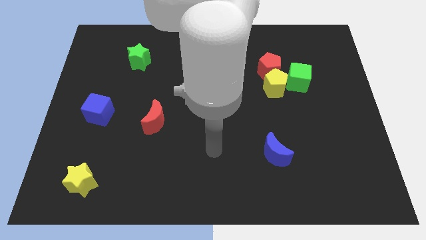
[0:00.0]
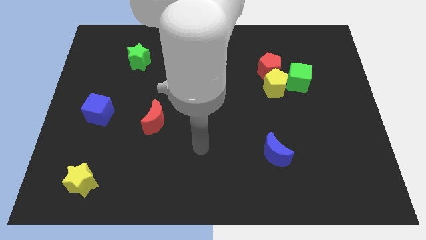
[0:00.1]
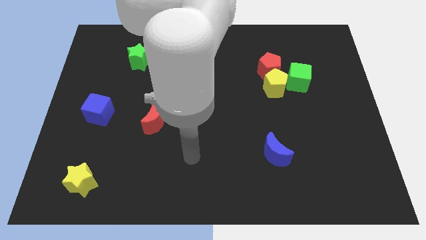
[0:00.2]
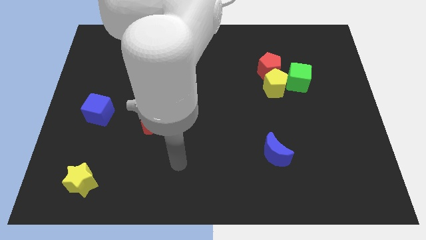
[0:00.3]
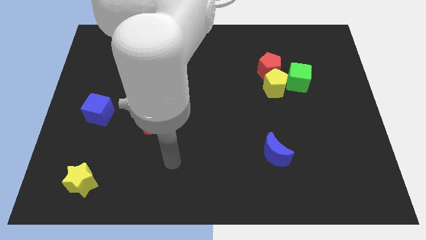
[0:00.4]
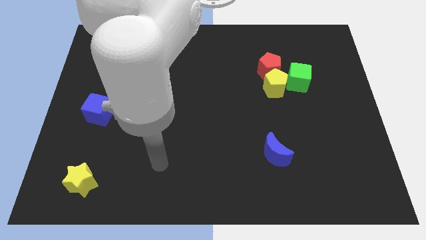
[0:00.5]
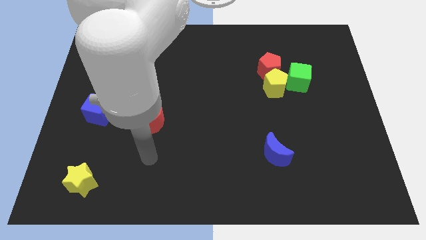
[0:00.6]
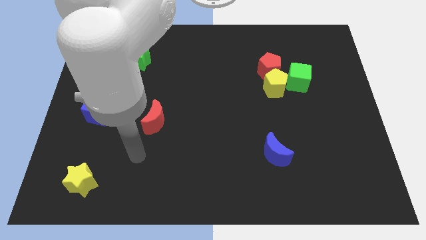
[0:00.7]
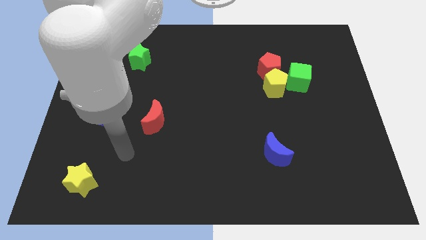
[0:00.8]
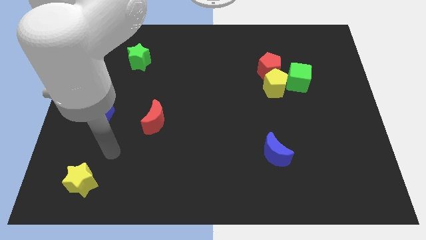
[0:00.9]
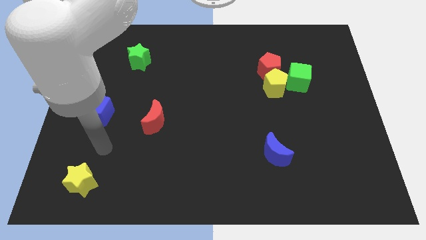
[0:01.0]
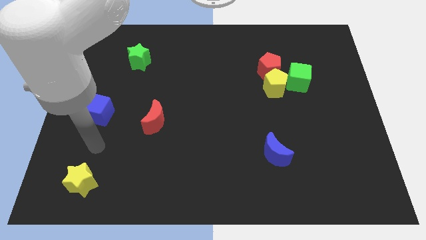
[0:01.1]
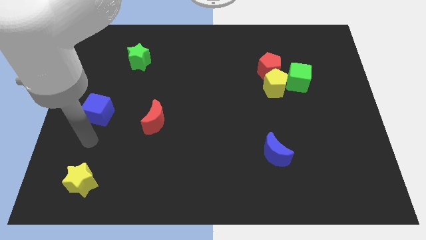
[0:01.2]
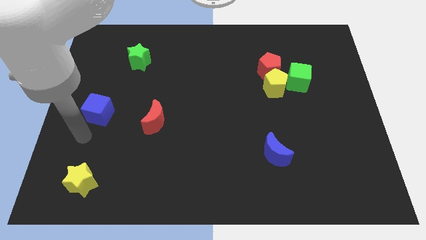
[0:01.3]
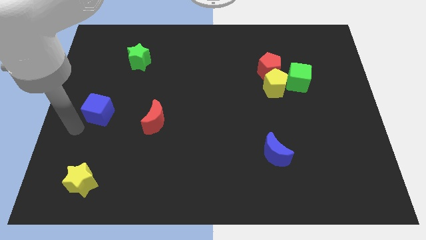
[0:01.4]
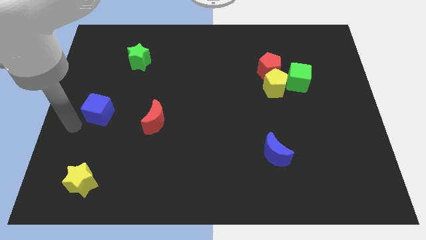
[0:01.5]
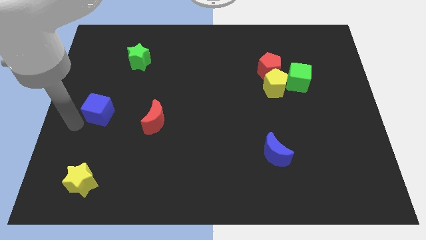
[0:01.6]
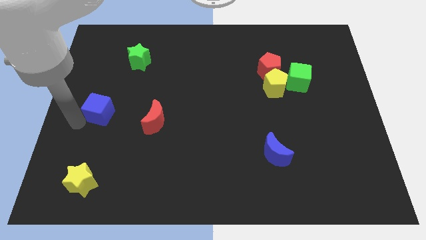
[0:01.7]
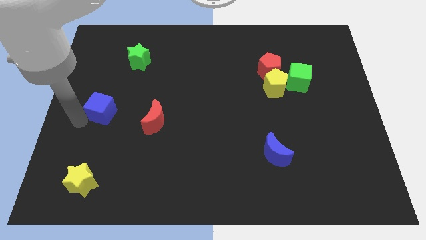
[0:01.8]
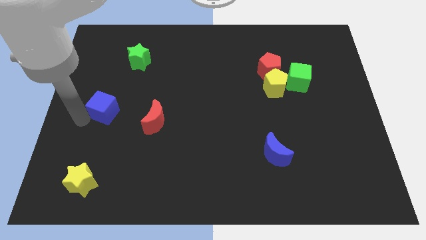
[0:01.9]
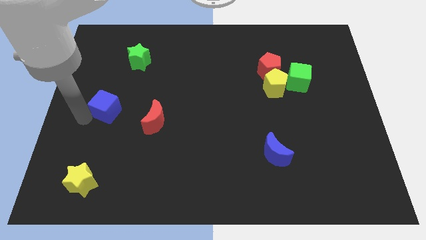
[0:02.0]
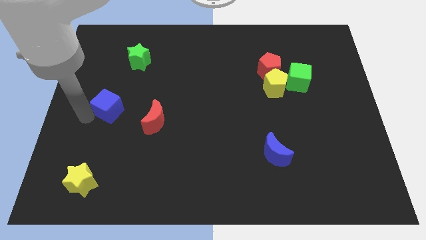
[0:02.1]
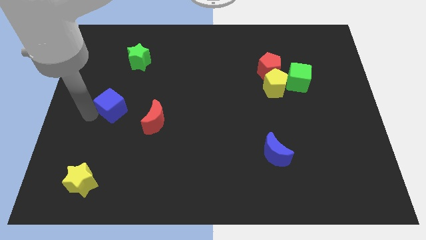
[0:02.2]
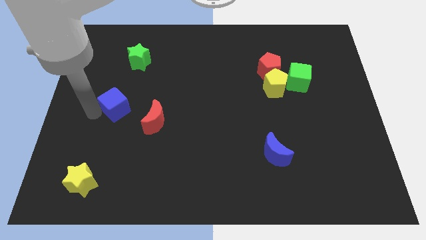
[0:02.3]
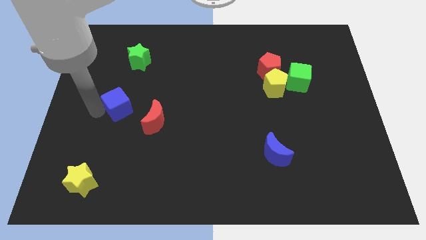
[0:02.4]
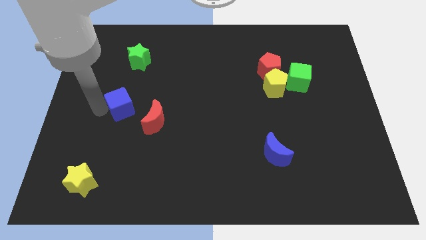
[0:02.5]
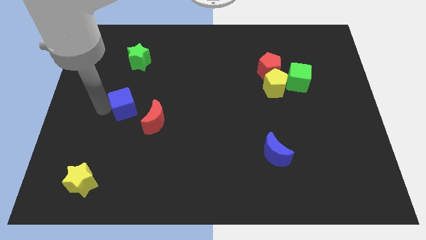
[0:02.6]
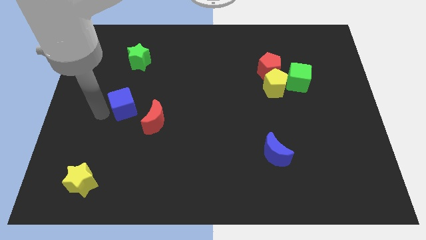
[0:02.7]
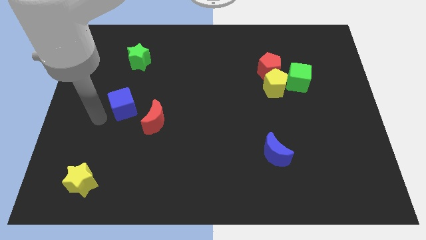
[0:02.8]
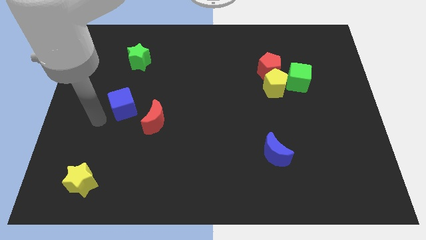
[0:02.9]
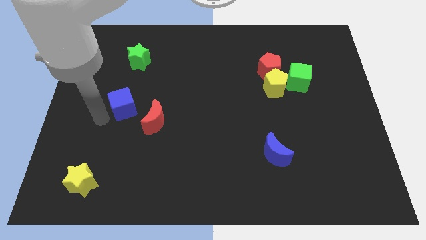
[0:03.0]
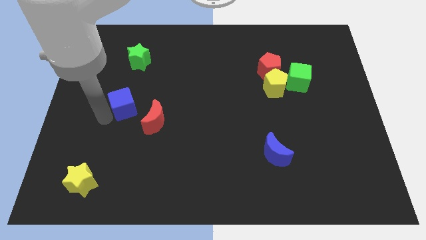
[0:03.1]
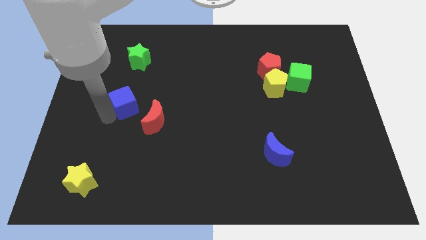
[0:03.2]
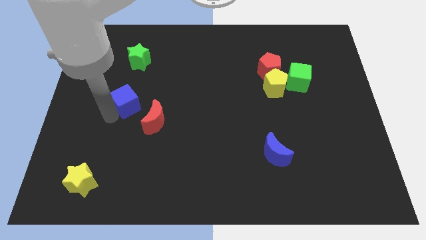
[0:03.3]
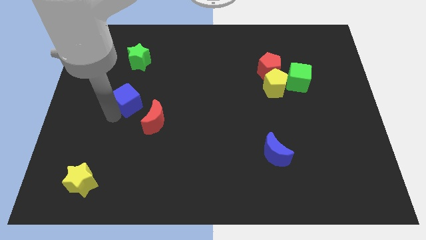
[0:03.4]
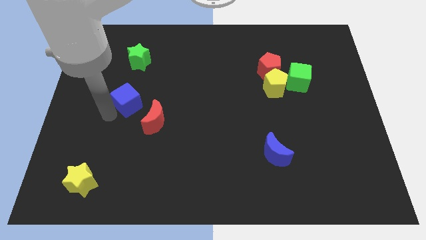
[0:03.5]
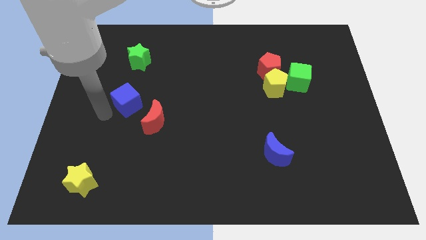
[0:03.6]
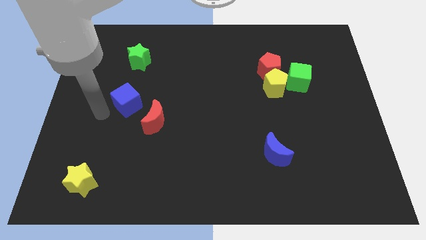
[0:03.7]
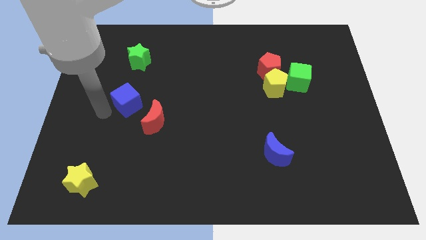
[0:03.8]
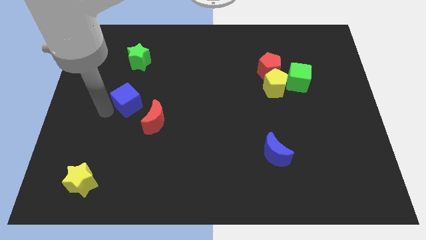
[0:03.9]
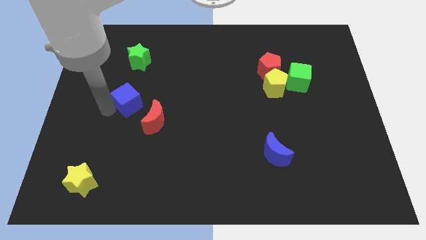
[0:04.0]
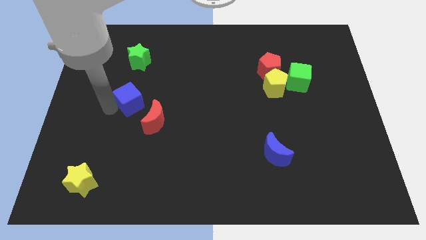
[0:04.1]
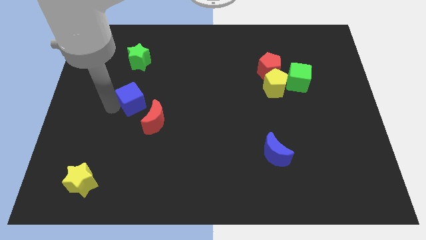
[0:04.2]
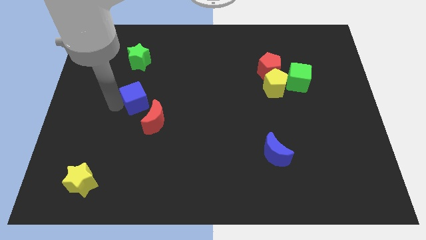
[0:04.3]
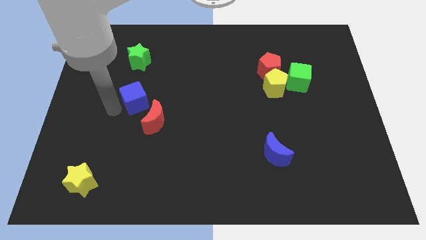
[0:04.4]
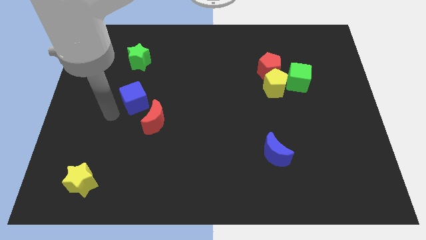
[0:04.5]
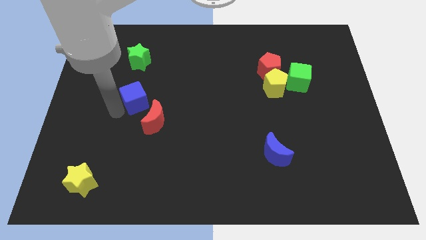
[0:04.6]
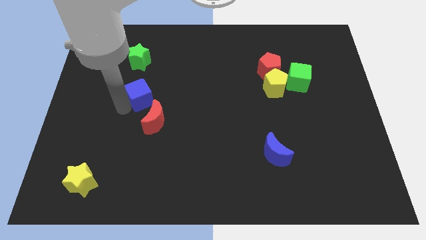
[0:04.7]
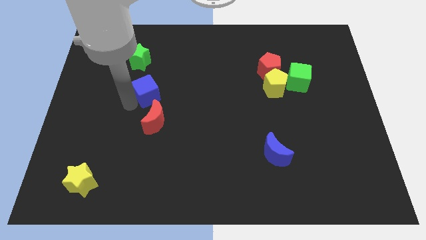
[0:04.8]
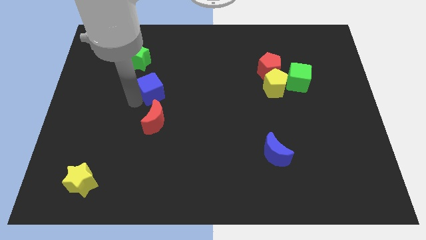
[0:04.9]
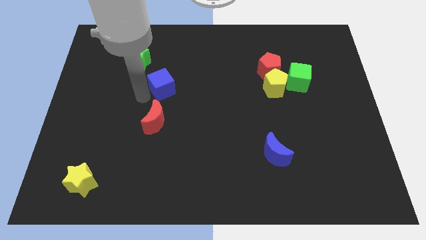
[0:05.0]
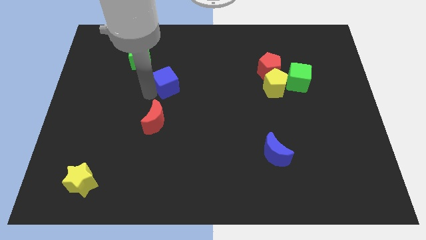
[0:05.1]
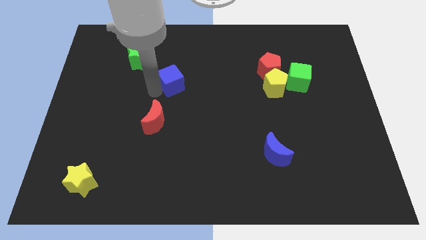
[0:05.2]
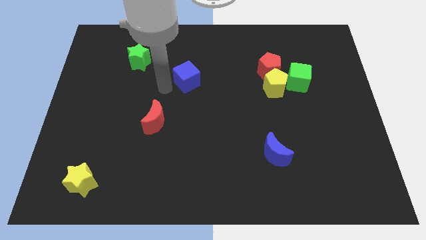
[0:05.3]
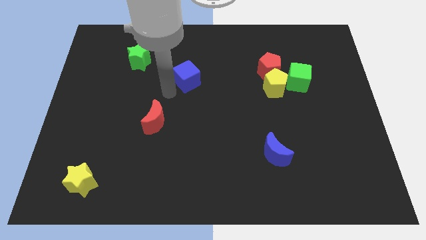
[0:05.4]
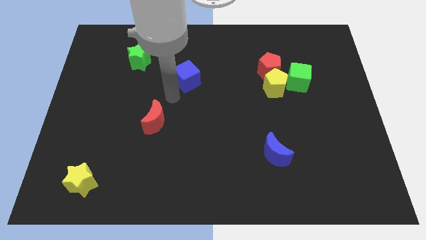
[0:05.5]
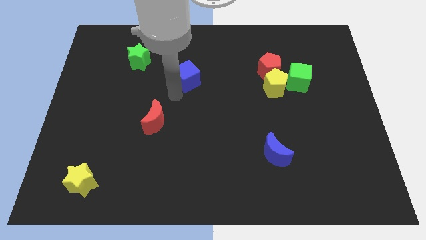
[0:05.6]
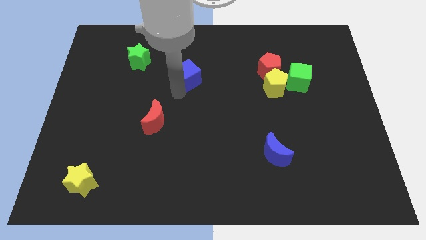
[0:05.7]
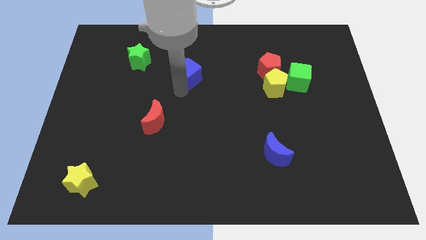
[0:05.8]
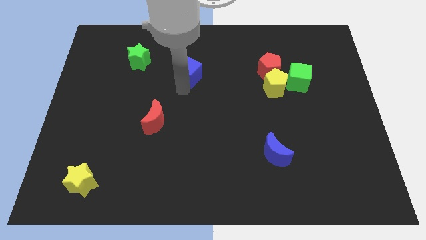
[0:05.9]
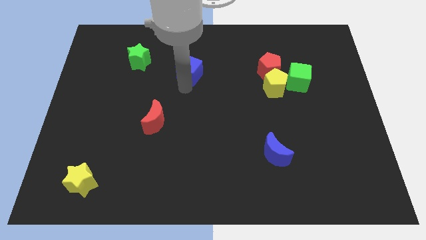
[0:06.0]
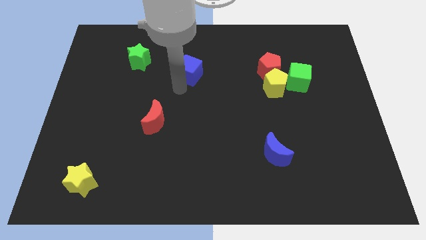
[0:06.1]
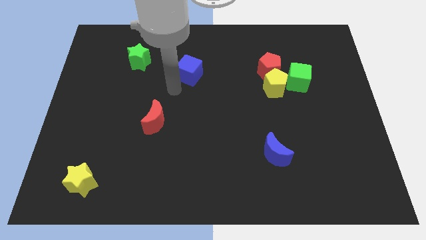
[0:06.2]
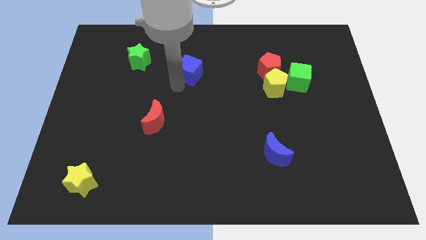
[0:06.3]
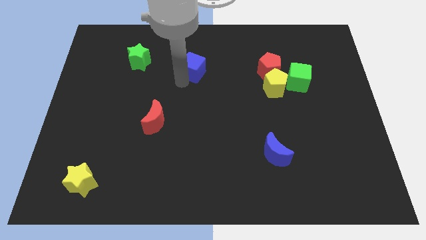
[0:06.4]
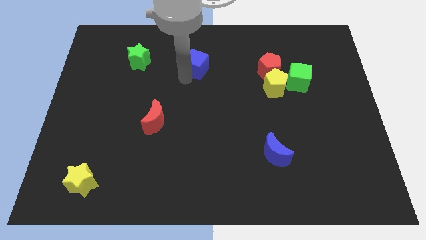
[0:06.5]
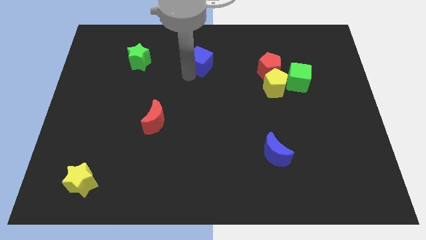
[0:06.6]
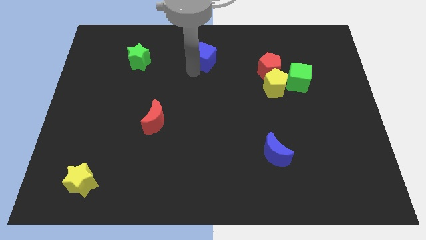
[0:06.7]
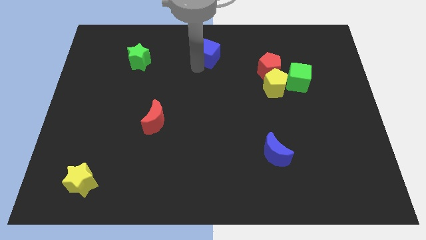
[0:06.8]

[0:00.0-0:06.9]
slide the blue cube to the top

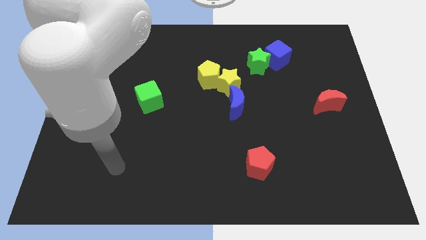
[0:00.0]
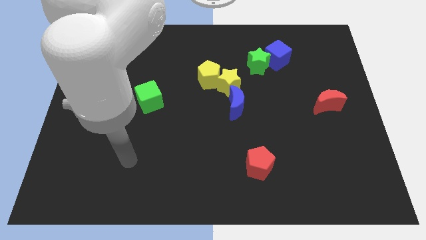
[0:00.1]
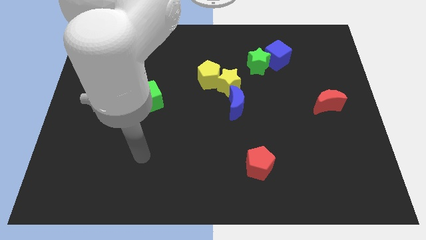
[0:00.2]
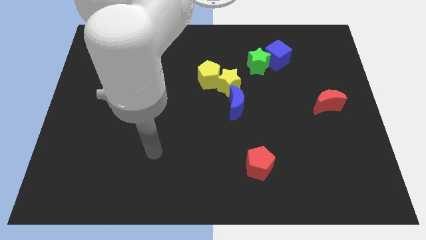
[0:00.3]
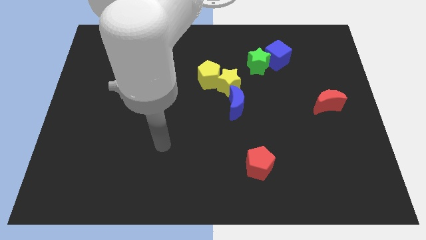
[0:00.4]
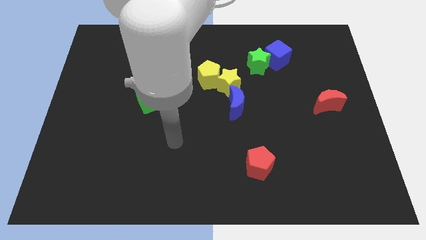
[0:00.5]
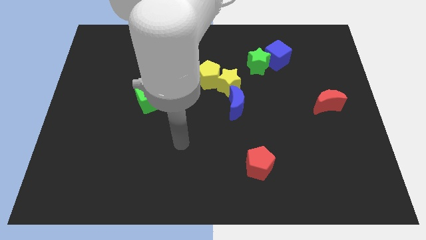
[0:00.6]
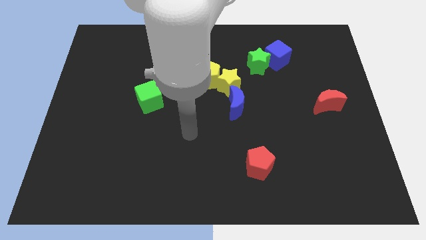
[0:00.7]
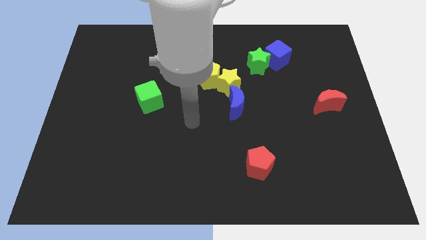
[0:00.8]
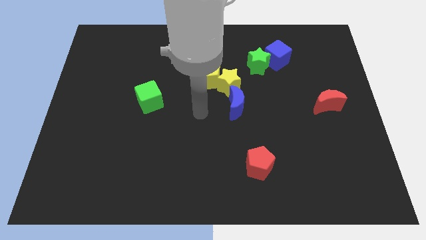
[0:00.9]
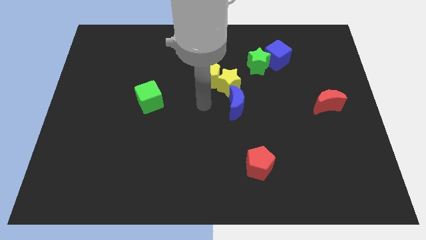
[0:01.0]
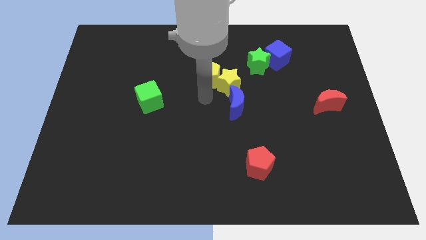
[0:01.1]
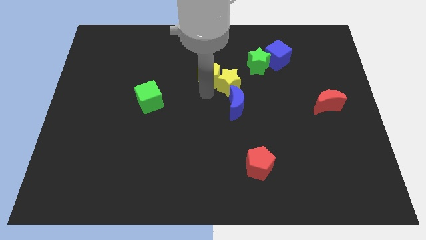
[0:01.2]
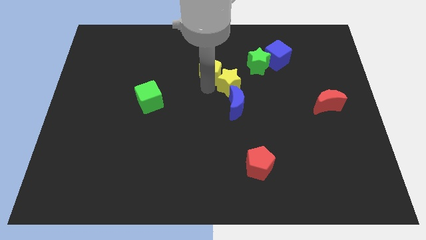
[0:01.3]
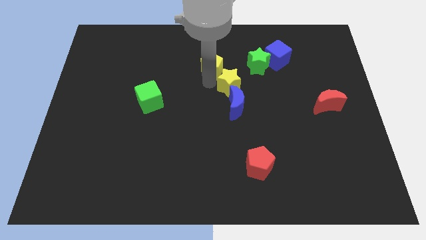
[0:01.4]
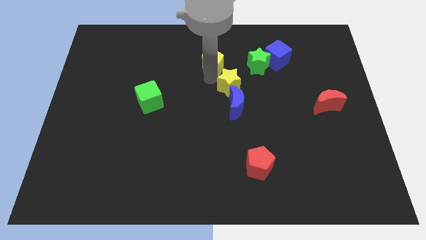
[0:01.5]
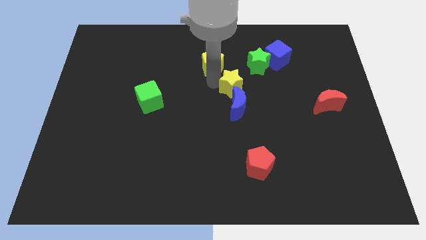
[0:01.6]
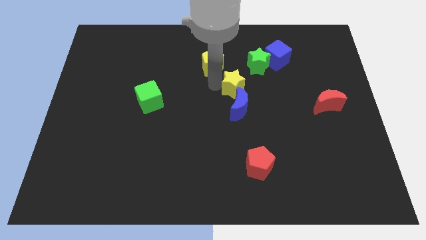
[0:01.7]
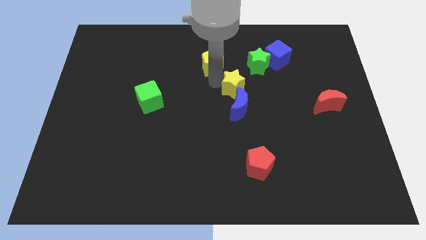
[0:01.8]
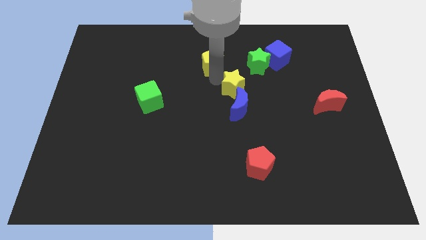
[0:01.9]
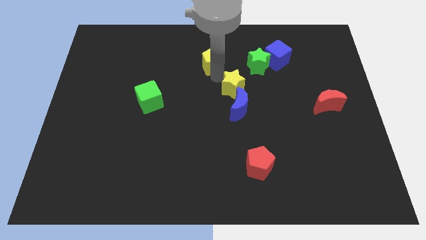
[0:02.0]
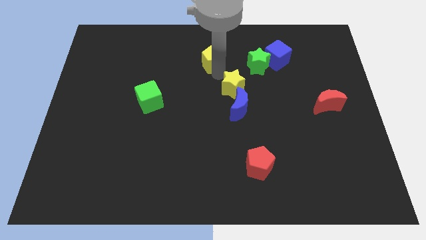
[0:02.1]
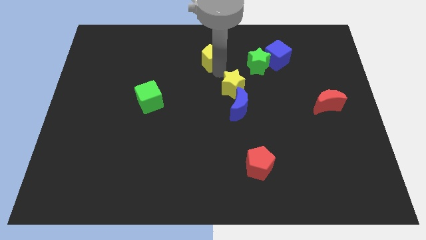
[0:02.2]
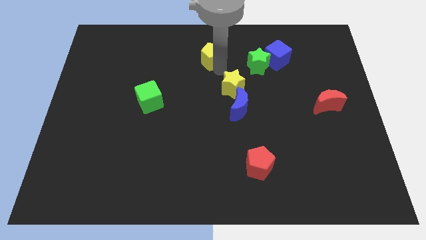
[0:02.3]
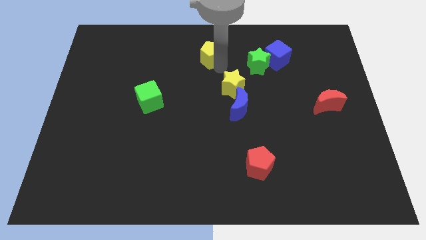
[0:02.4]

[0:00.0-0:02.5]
push the yellow pentagon to the towards your base
